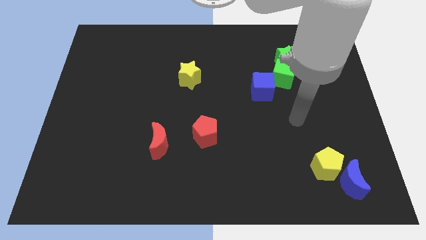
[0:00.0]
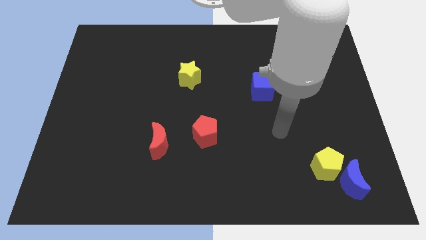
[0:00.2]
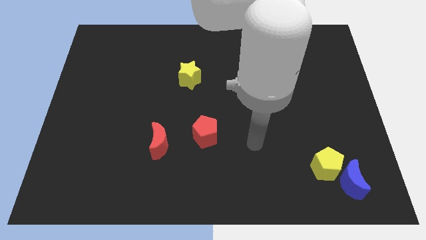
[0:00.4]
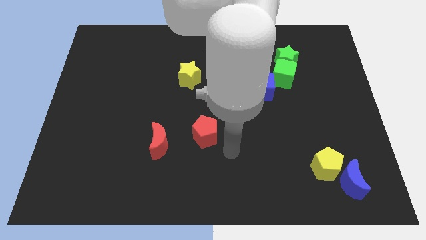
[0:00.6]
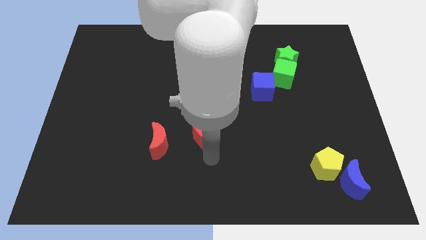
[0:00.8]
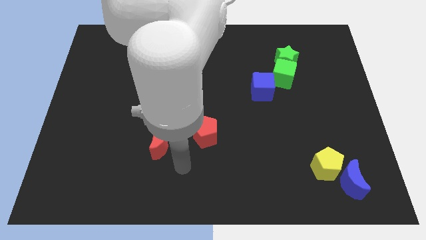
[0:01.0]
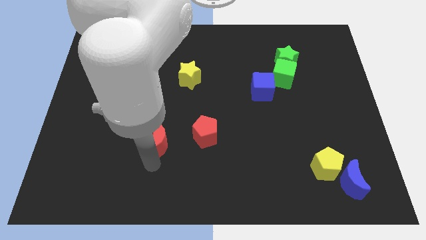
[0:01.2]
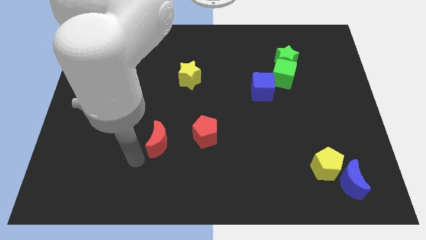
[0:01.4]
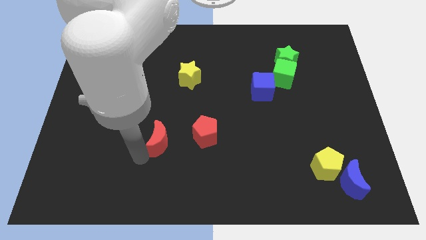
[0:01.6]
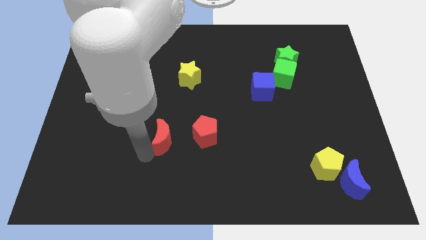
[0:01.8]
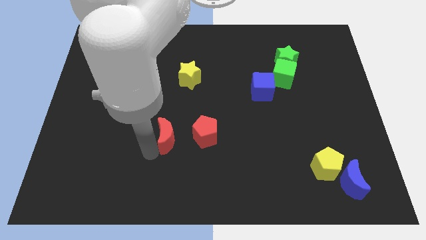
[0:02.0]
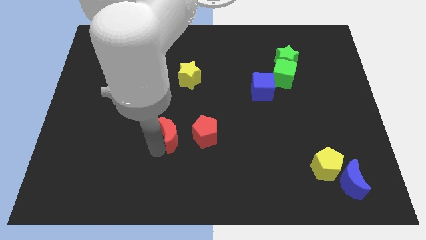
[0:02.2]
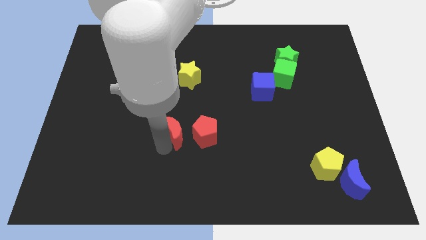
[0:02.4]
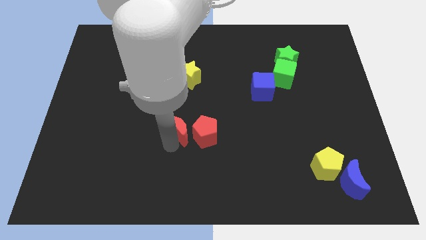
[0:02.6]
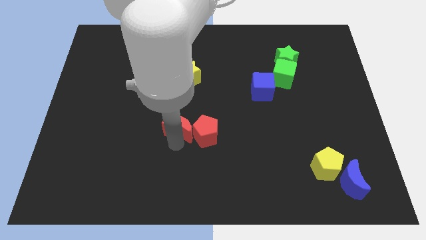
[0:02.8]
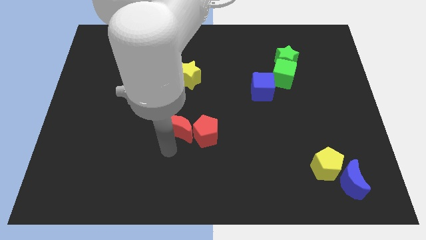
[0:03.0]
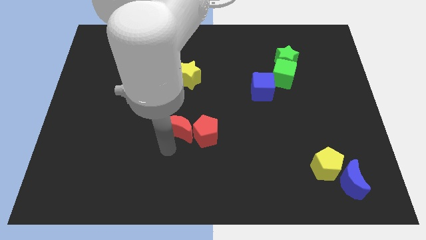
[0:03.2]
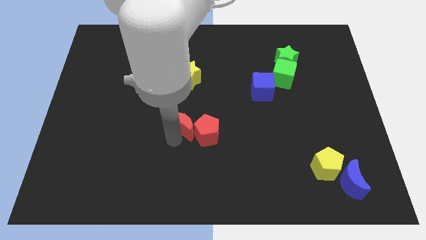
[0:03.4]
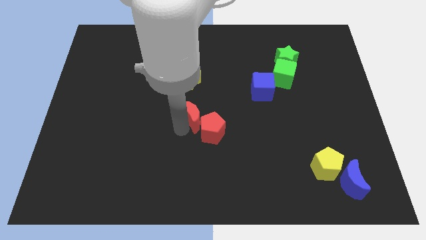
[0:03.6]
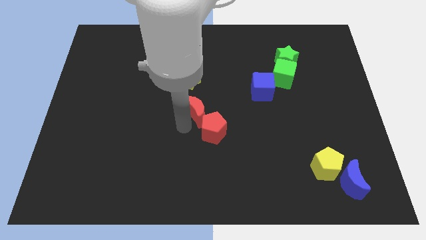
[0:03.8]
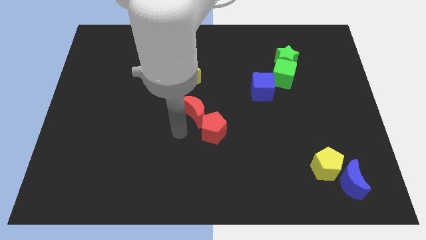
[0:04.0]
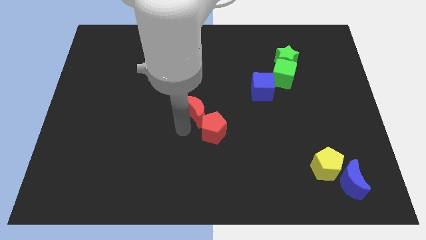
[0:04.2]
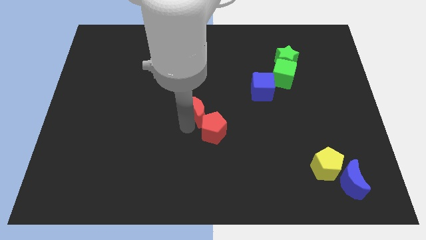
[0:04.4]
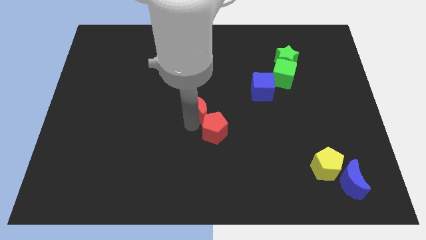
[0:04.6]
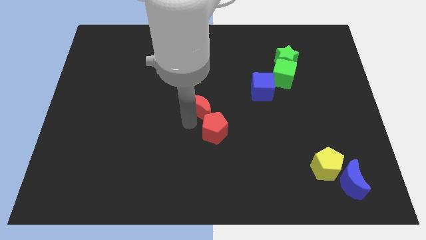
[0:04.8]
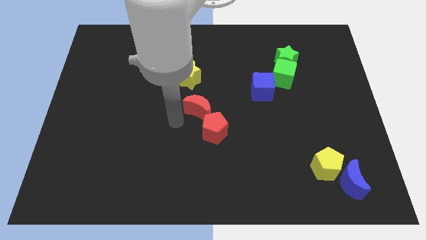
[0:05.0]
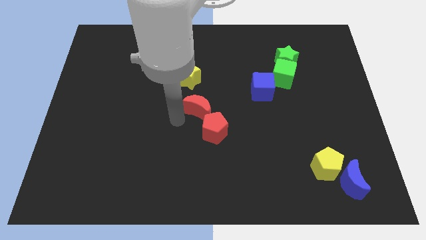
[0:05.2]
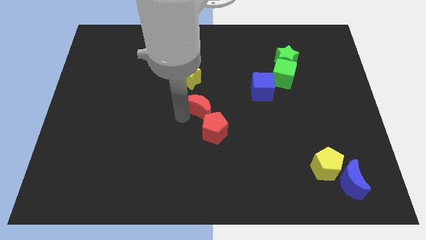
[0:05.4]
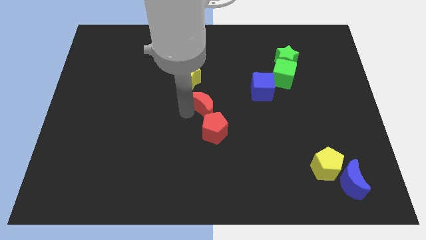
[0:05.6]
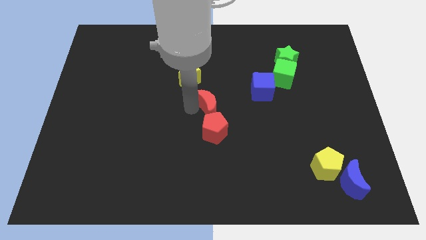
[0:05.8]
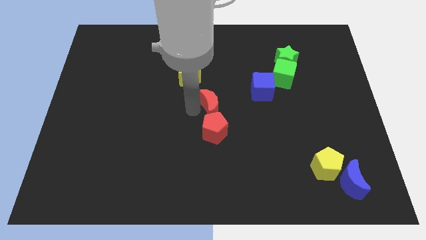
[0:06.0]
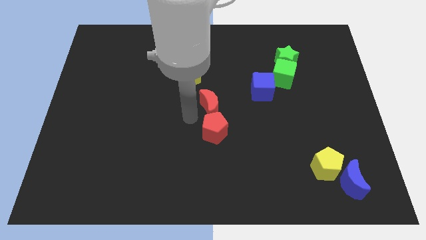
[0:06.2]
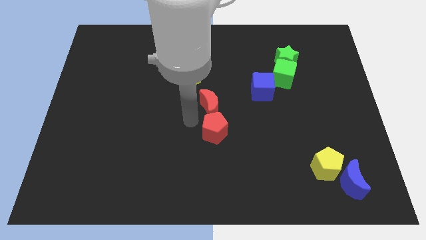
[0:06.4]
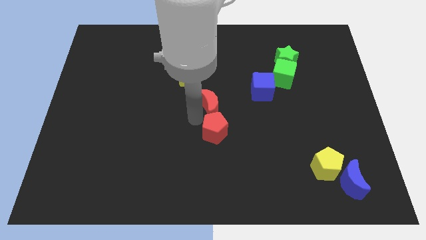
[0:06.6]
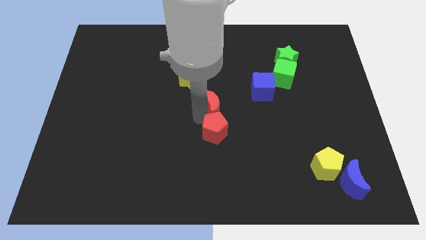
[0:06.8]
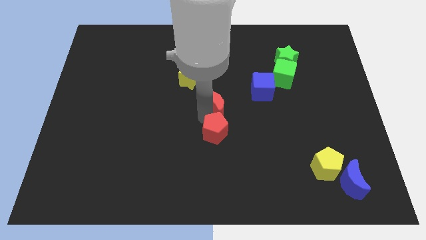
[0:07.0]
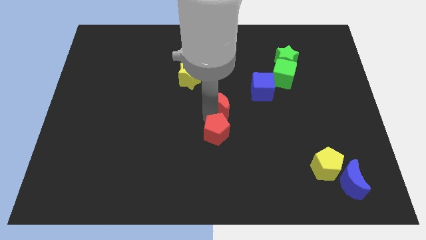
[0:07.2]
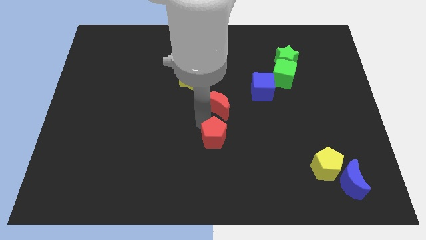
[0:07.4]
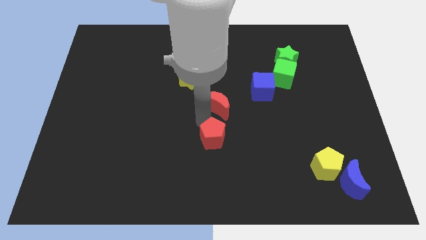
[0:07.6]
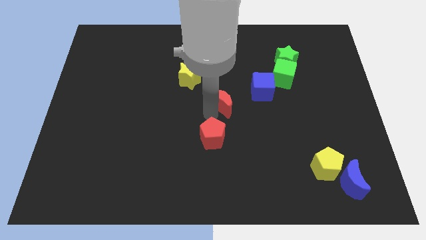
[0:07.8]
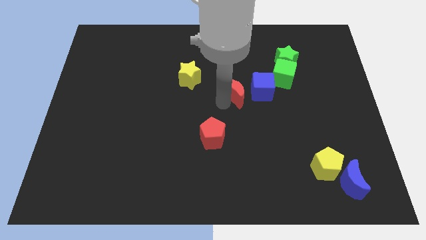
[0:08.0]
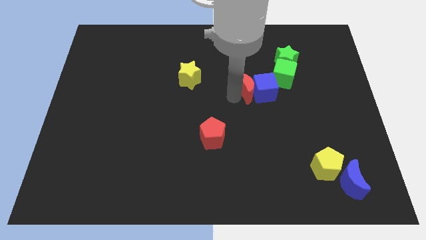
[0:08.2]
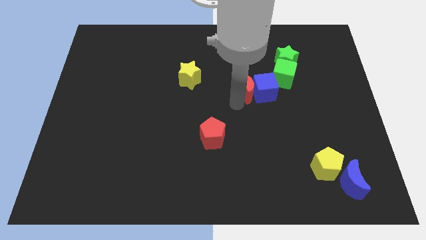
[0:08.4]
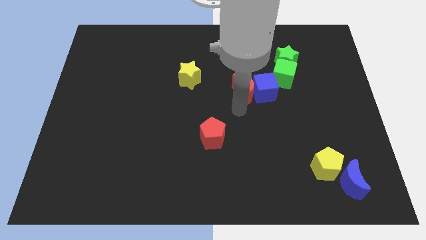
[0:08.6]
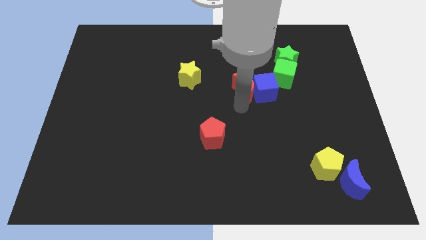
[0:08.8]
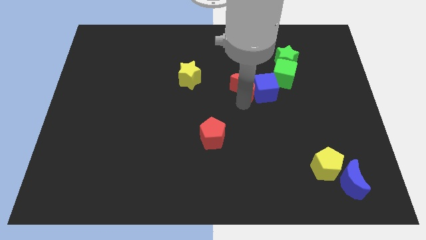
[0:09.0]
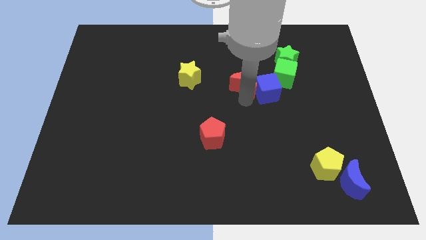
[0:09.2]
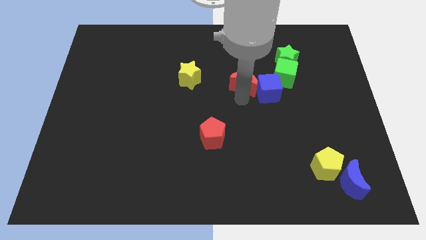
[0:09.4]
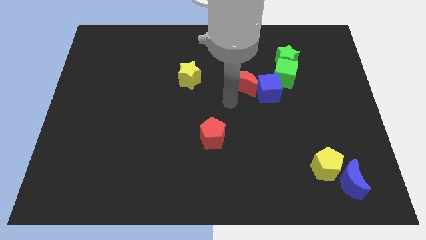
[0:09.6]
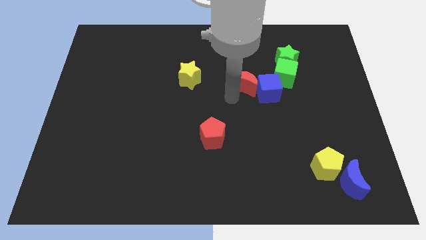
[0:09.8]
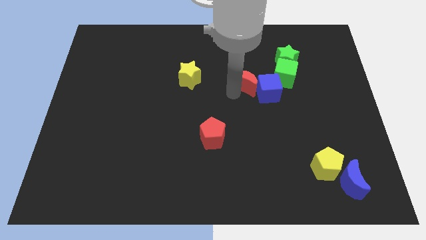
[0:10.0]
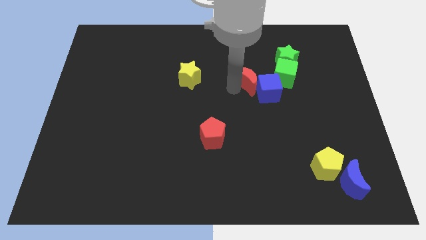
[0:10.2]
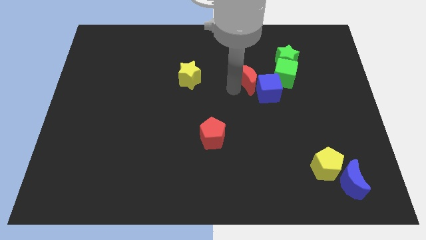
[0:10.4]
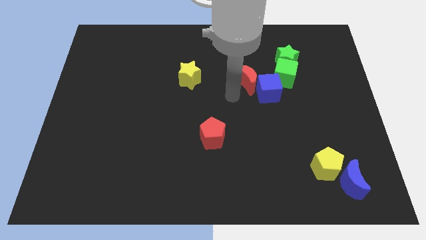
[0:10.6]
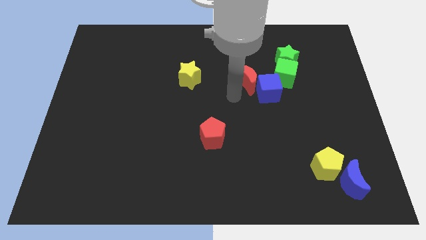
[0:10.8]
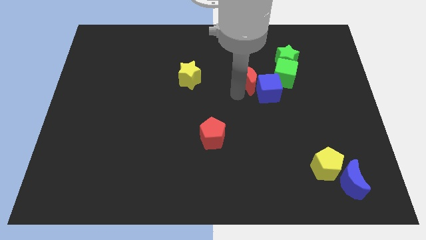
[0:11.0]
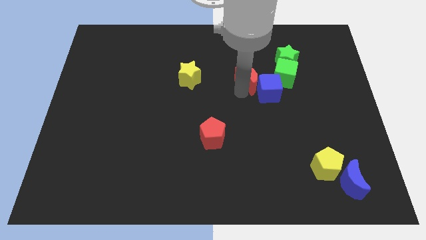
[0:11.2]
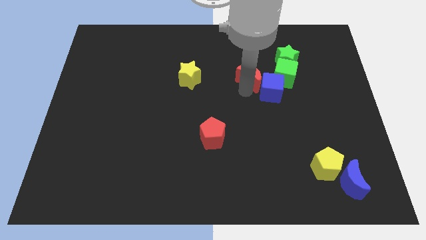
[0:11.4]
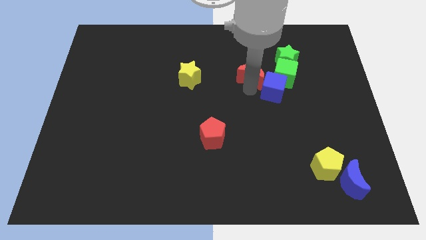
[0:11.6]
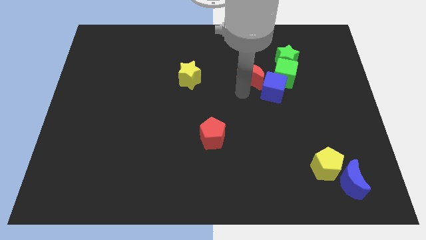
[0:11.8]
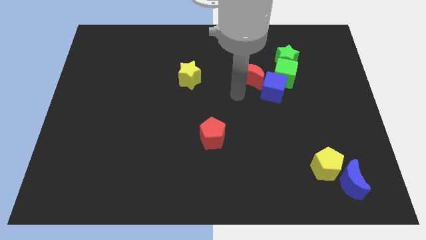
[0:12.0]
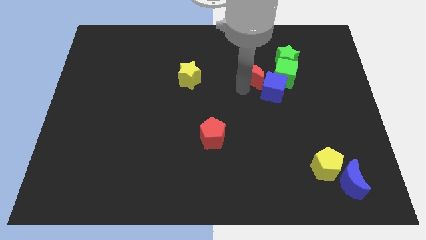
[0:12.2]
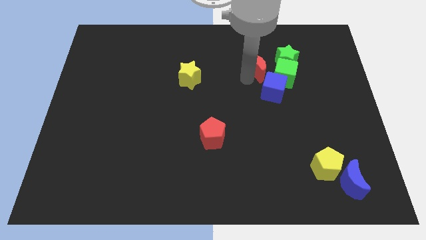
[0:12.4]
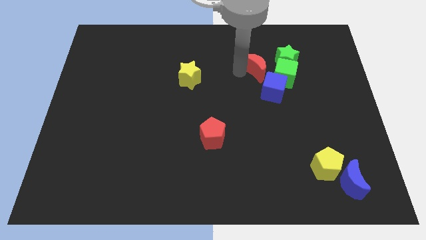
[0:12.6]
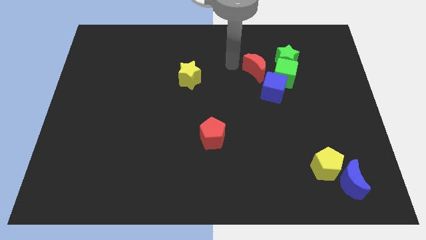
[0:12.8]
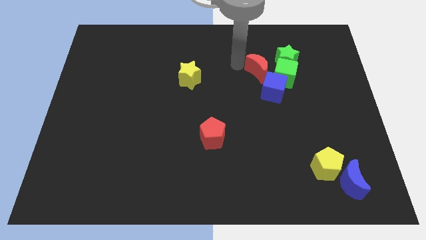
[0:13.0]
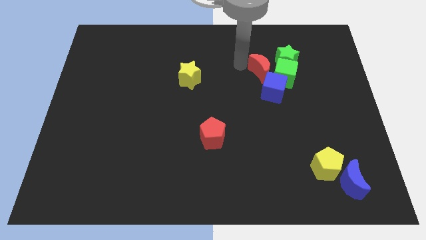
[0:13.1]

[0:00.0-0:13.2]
put the red moon to the green cube

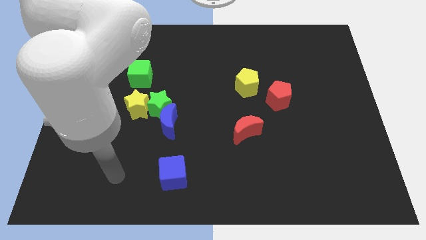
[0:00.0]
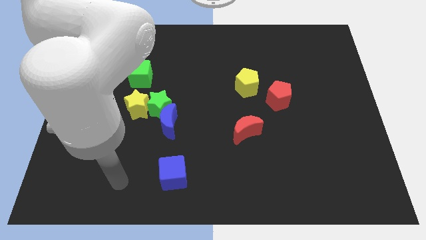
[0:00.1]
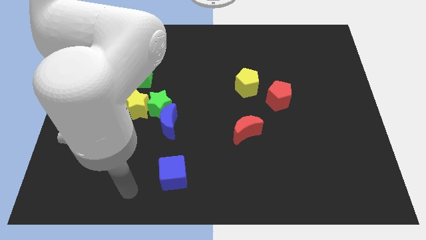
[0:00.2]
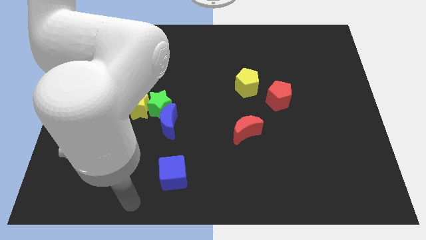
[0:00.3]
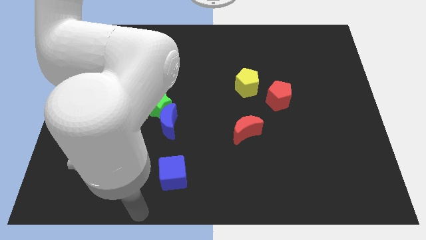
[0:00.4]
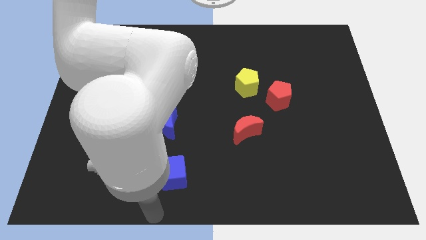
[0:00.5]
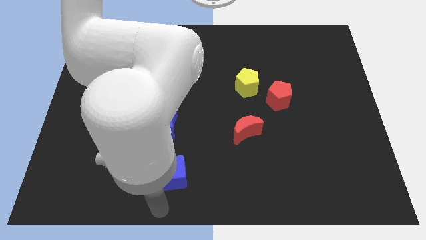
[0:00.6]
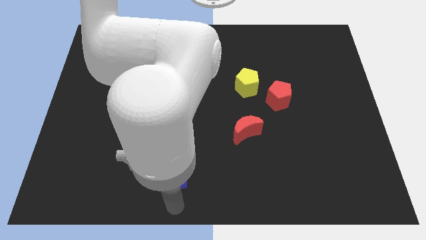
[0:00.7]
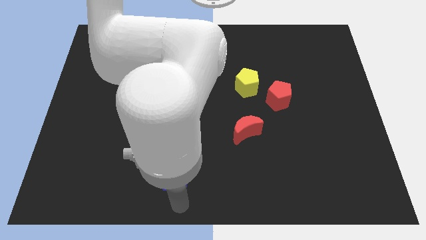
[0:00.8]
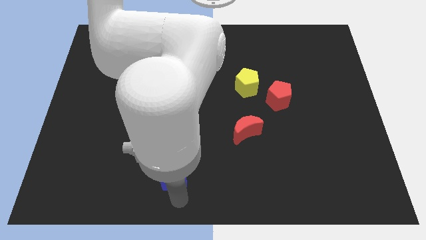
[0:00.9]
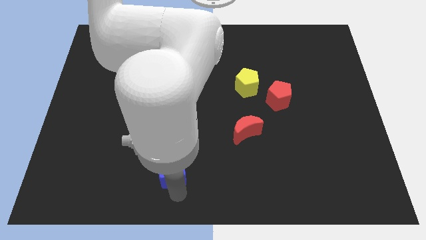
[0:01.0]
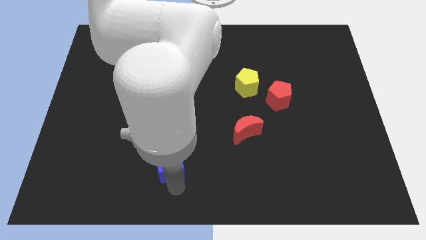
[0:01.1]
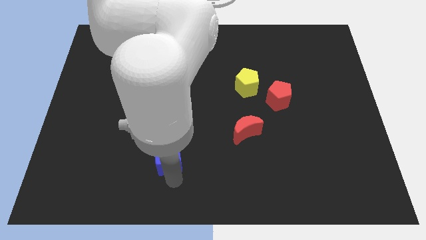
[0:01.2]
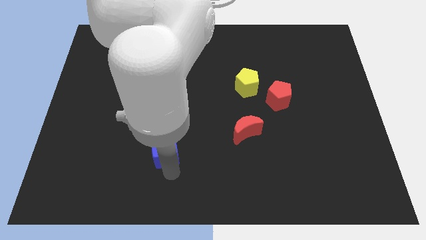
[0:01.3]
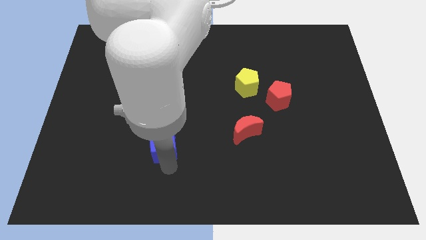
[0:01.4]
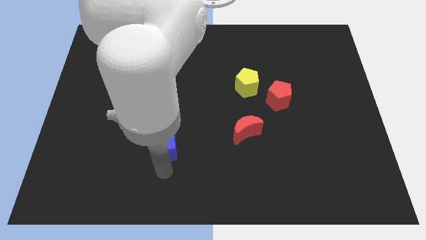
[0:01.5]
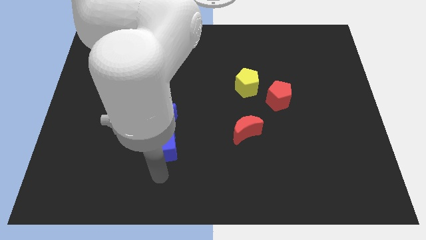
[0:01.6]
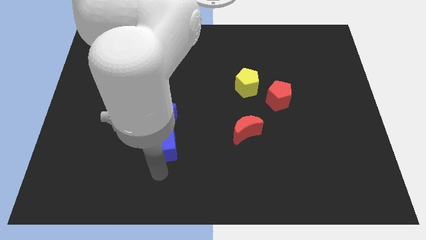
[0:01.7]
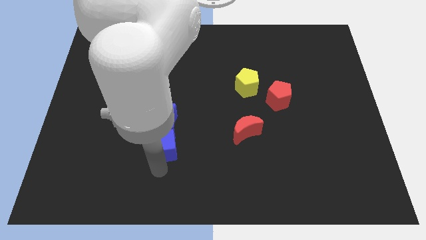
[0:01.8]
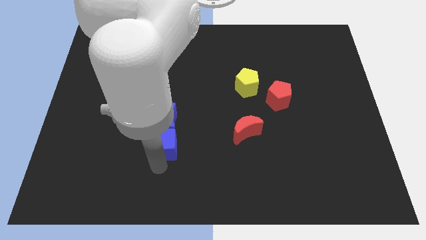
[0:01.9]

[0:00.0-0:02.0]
put the blue cube to the blue moon
